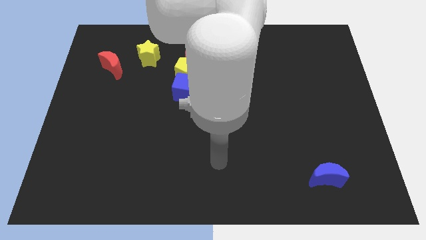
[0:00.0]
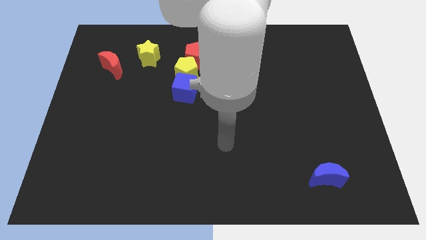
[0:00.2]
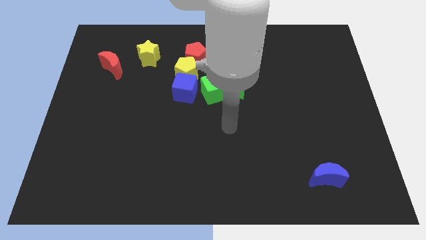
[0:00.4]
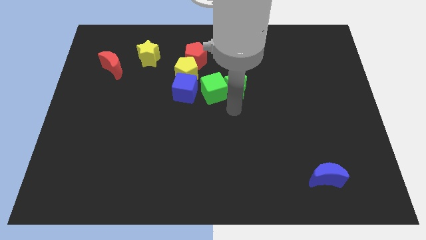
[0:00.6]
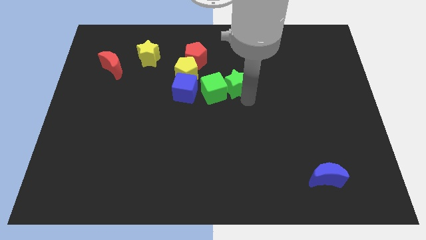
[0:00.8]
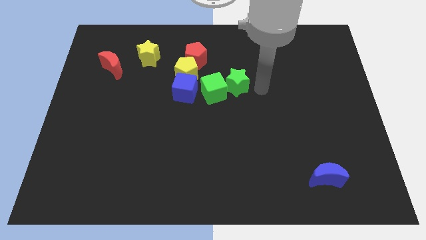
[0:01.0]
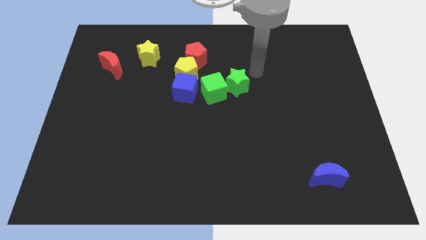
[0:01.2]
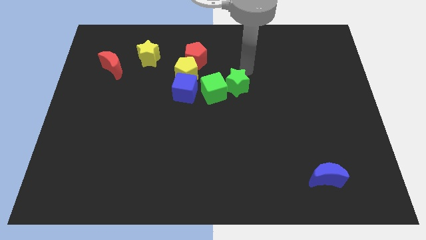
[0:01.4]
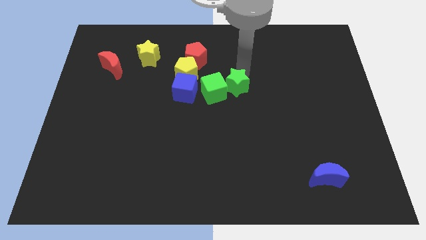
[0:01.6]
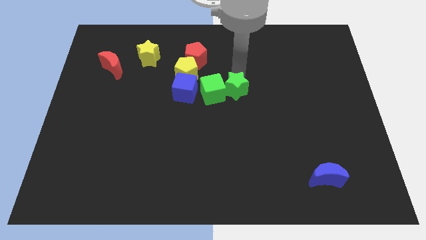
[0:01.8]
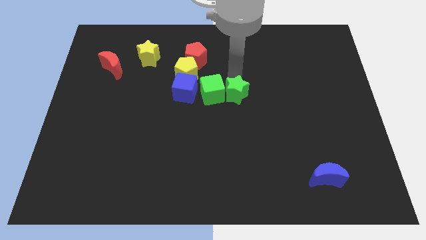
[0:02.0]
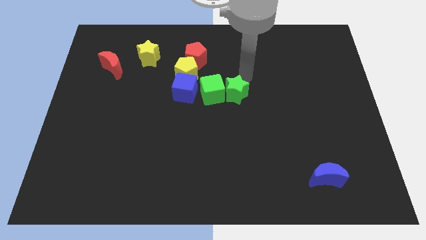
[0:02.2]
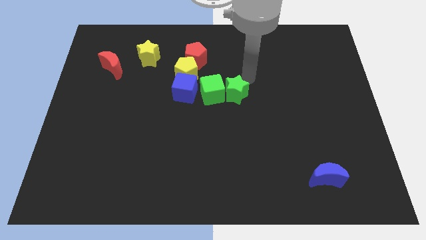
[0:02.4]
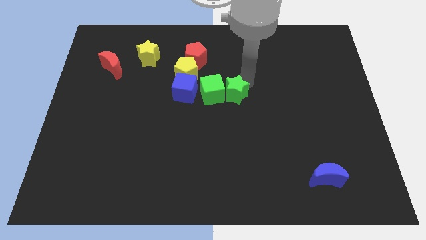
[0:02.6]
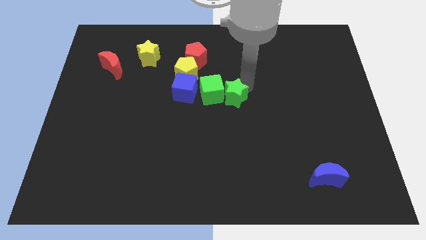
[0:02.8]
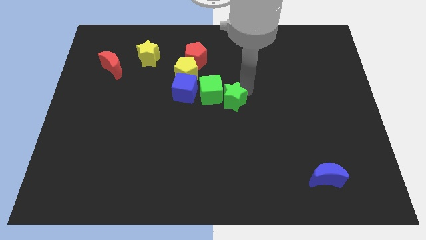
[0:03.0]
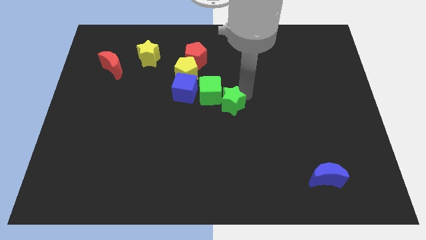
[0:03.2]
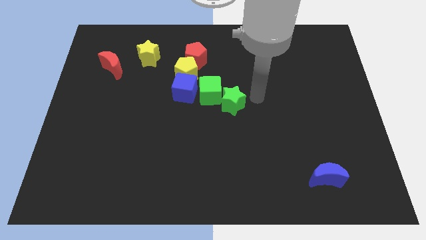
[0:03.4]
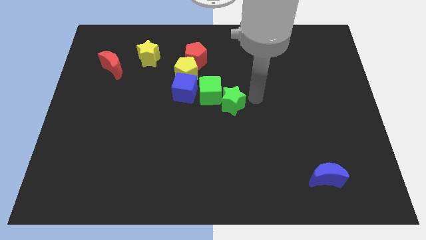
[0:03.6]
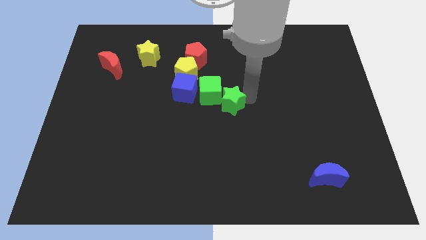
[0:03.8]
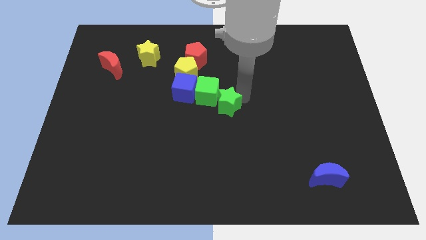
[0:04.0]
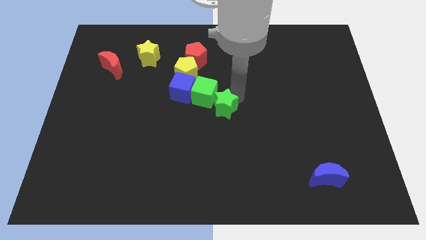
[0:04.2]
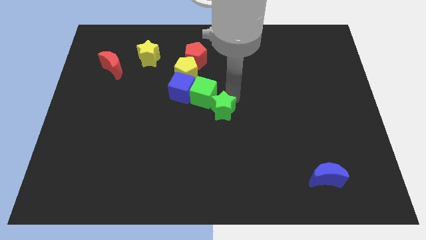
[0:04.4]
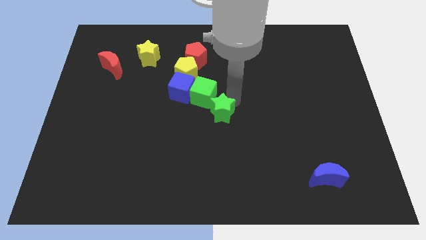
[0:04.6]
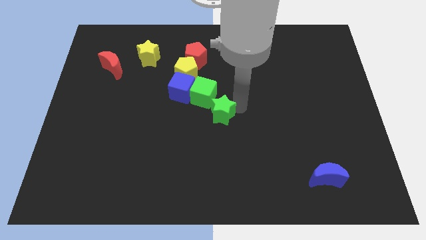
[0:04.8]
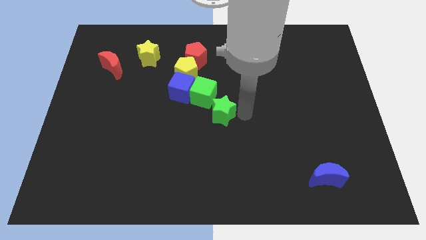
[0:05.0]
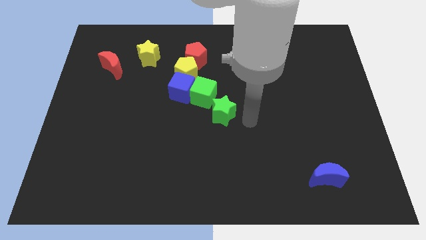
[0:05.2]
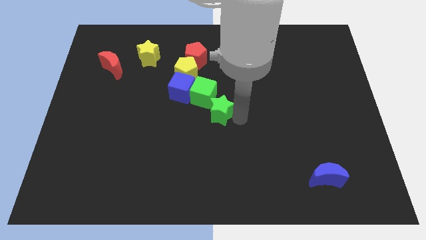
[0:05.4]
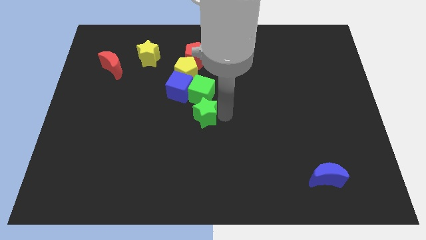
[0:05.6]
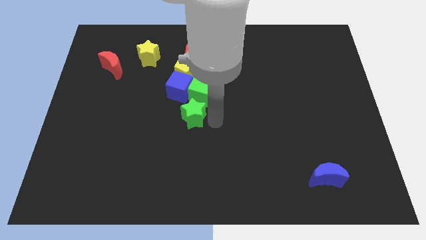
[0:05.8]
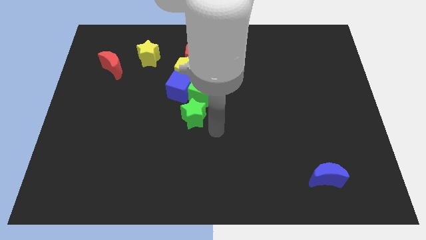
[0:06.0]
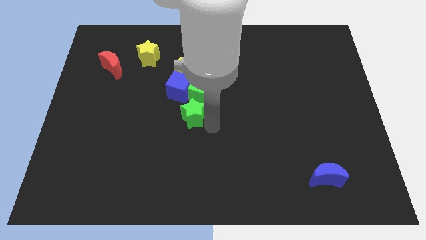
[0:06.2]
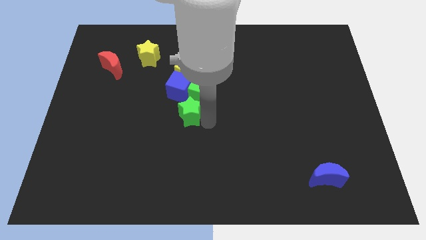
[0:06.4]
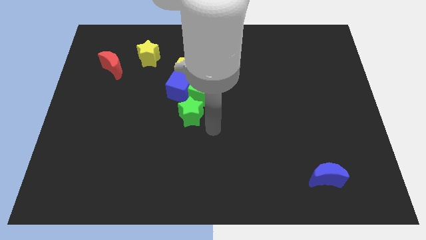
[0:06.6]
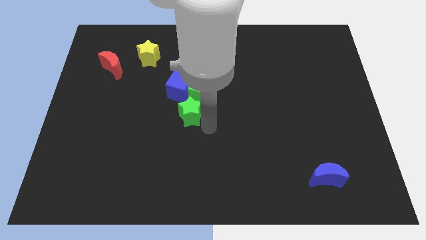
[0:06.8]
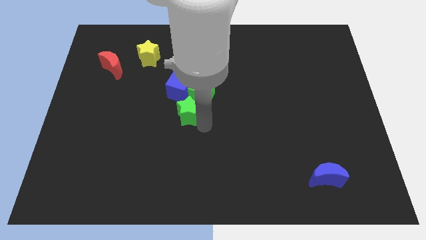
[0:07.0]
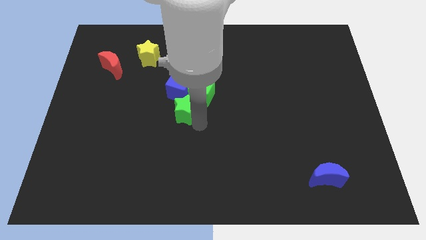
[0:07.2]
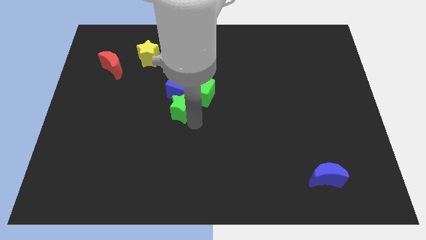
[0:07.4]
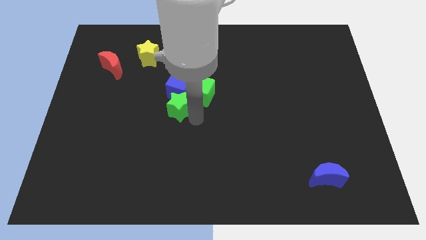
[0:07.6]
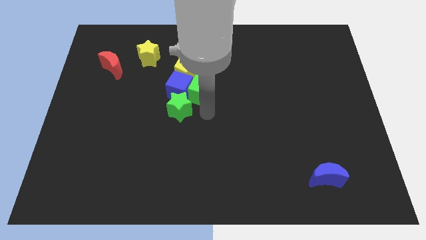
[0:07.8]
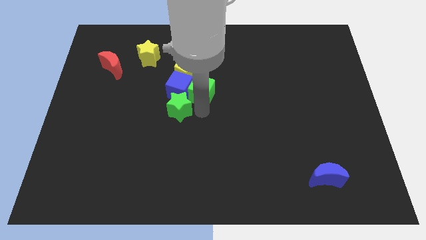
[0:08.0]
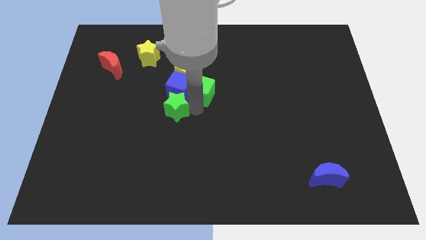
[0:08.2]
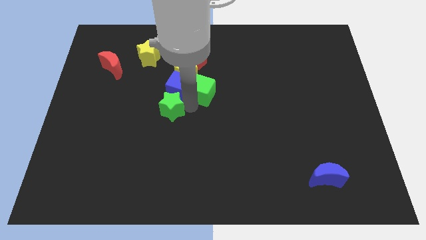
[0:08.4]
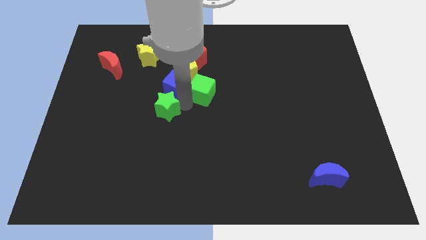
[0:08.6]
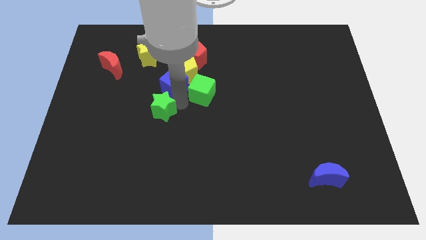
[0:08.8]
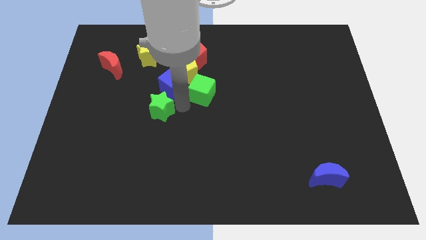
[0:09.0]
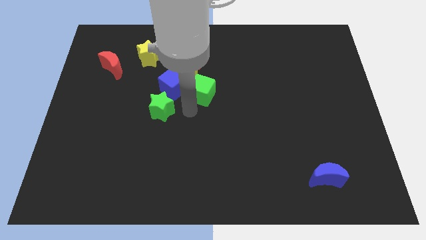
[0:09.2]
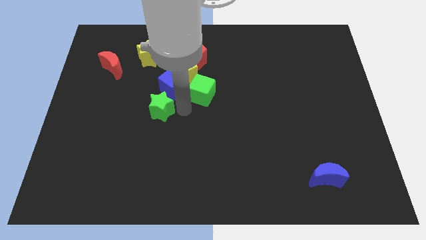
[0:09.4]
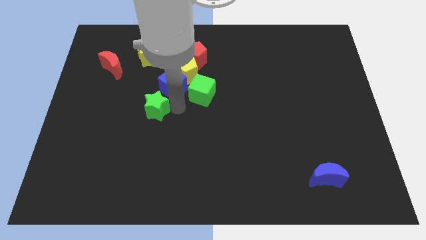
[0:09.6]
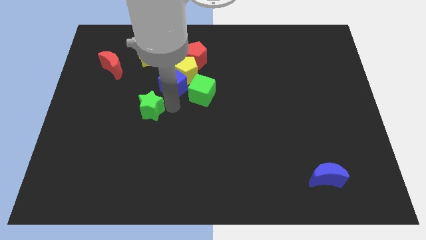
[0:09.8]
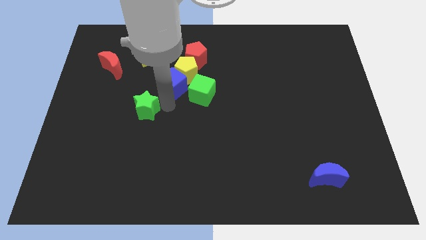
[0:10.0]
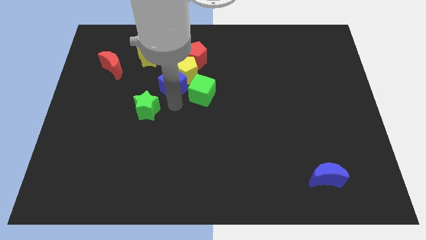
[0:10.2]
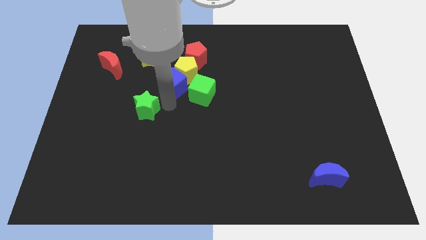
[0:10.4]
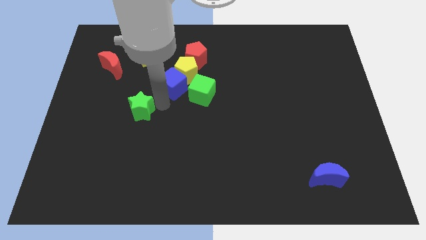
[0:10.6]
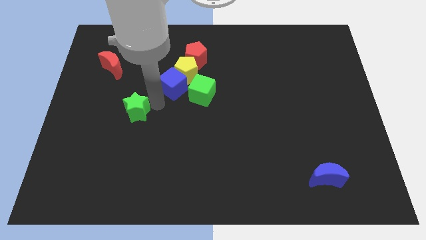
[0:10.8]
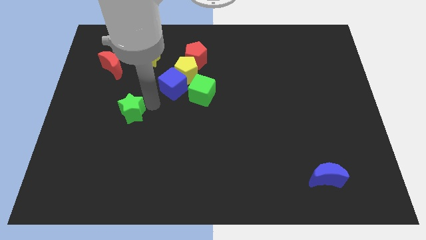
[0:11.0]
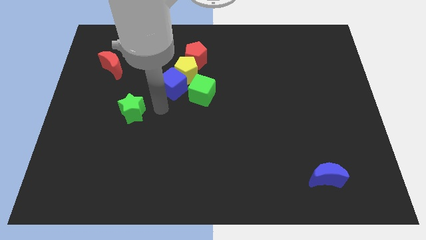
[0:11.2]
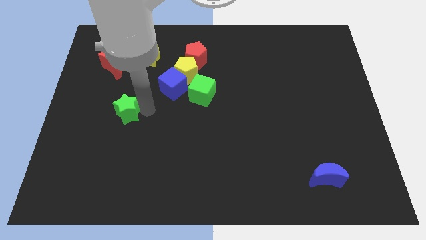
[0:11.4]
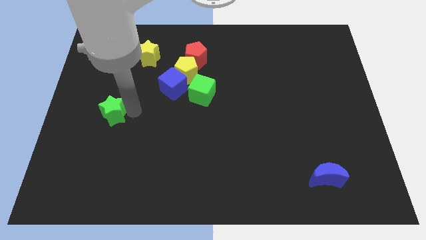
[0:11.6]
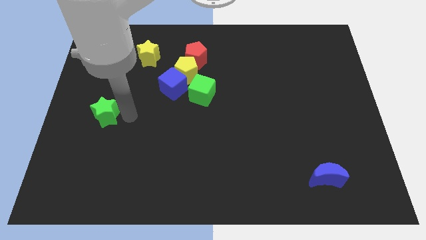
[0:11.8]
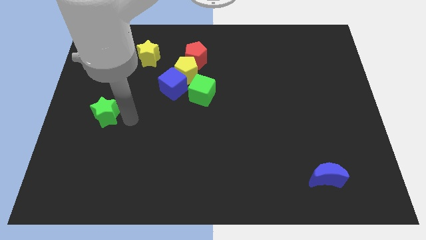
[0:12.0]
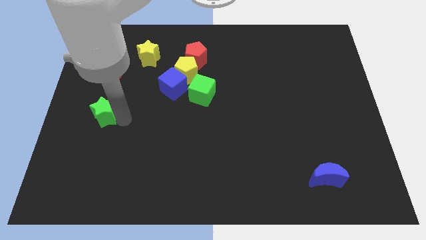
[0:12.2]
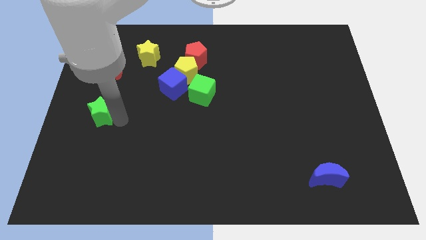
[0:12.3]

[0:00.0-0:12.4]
move the green star to the left side of the board

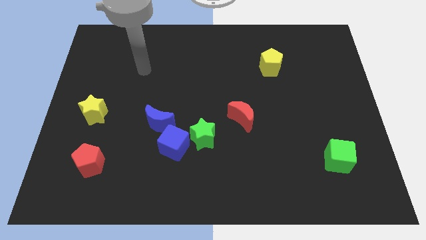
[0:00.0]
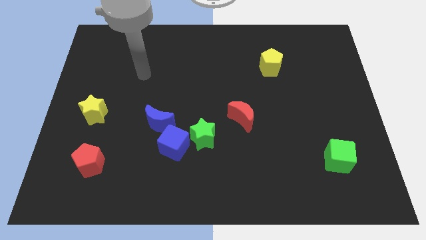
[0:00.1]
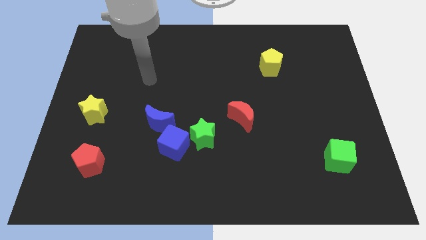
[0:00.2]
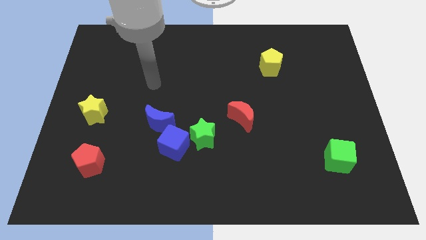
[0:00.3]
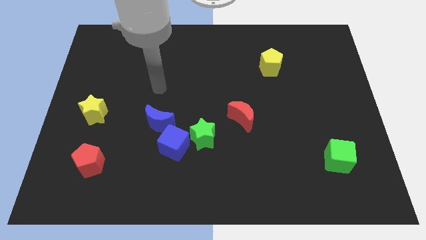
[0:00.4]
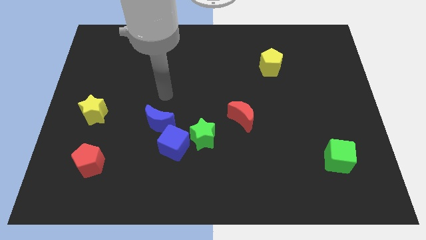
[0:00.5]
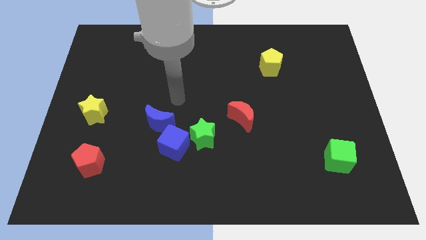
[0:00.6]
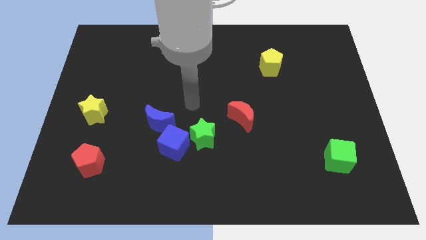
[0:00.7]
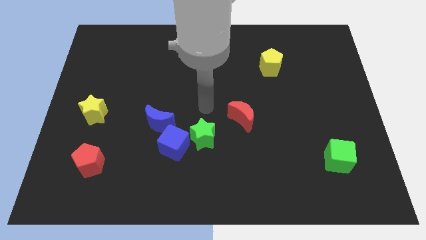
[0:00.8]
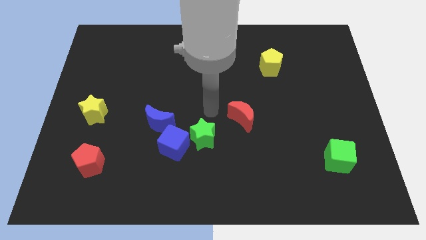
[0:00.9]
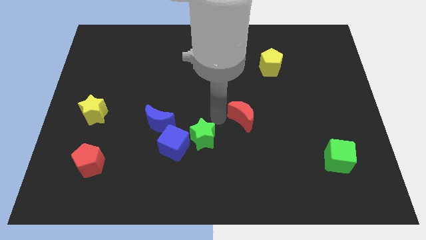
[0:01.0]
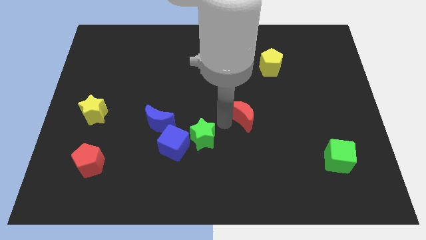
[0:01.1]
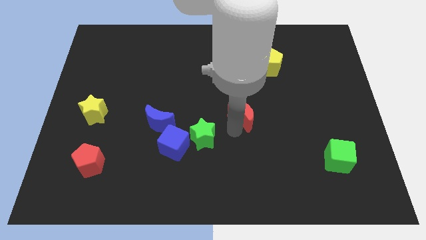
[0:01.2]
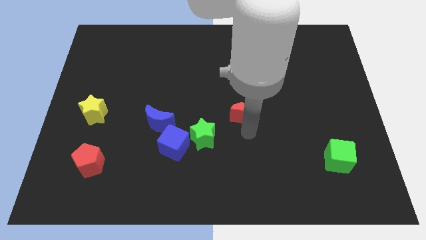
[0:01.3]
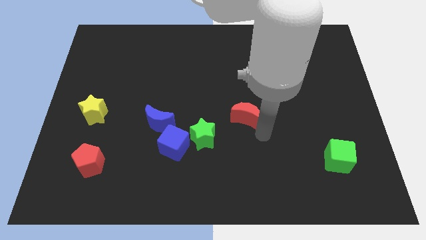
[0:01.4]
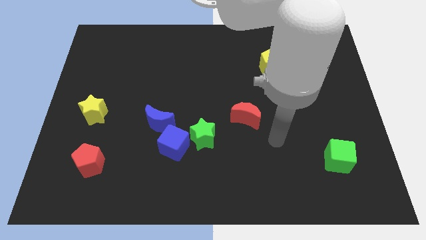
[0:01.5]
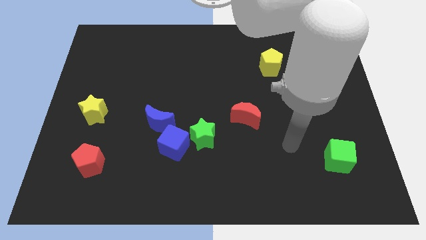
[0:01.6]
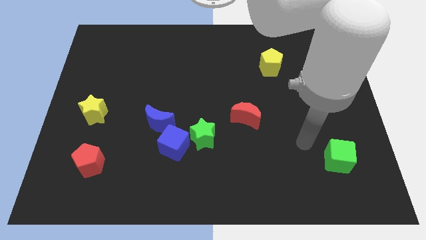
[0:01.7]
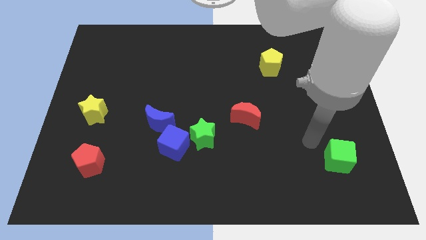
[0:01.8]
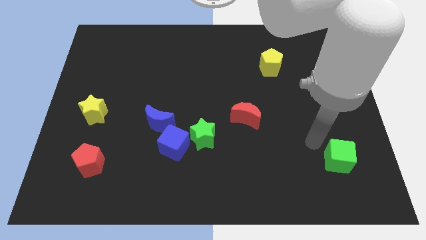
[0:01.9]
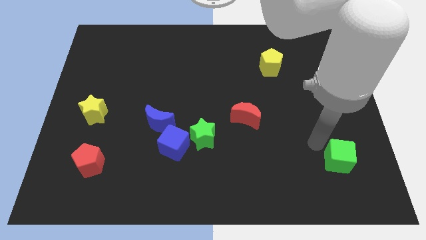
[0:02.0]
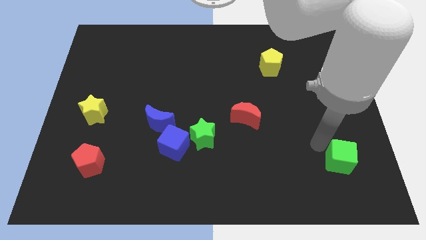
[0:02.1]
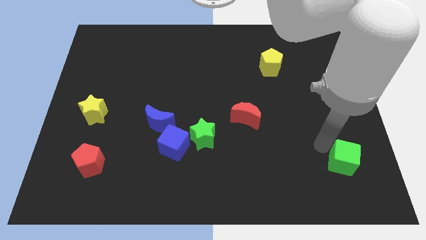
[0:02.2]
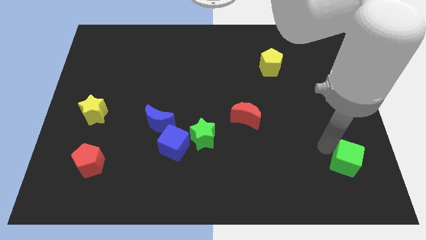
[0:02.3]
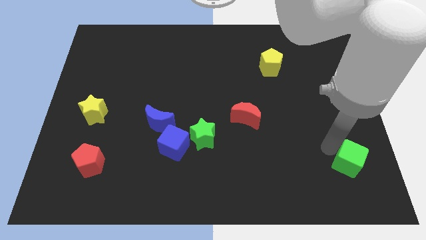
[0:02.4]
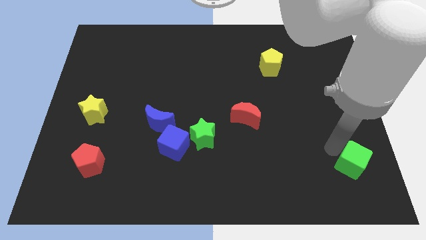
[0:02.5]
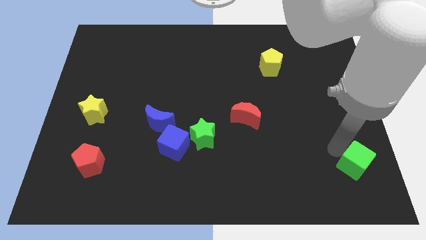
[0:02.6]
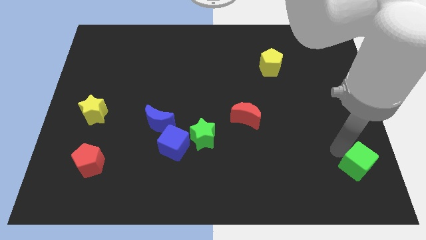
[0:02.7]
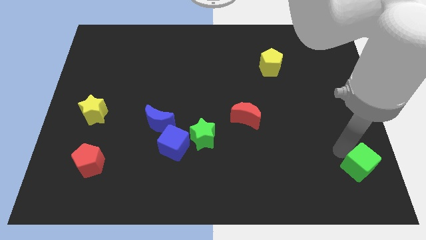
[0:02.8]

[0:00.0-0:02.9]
move the green cube to the bottom right of the board
